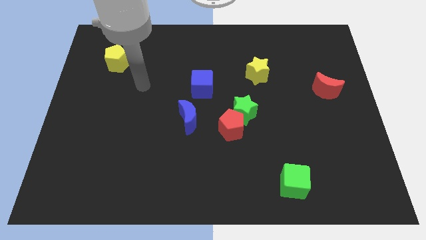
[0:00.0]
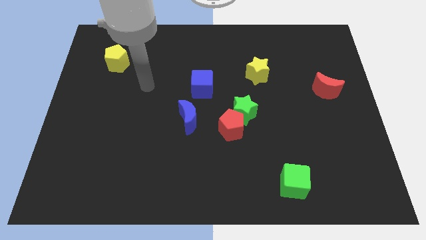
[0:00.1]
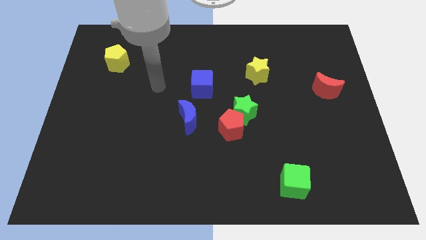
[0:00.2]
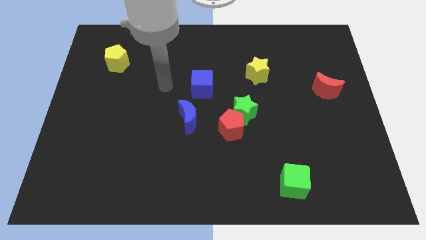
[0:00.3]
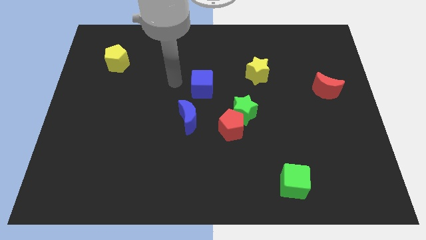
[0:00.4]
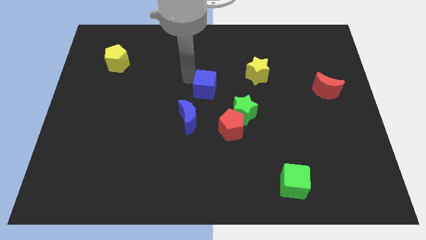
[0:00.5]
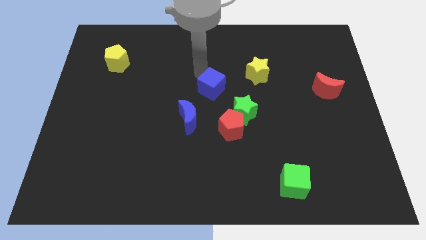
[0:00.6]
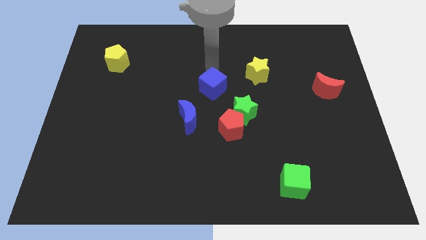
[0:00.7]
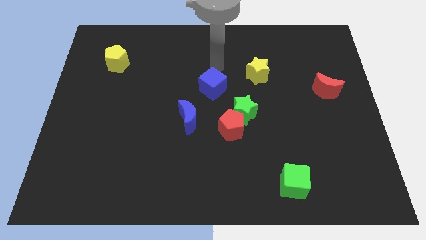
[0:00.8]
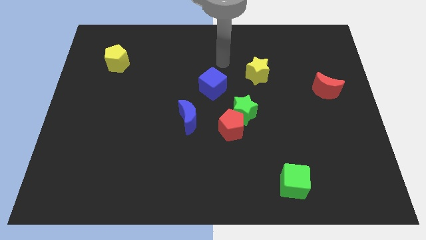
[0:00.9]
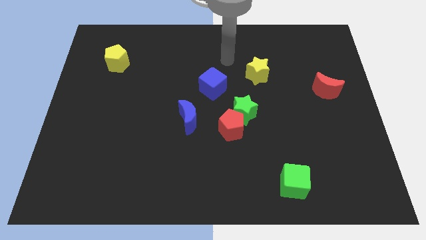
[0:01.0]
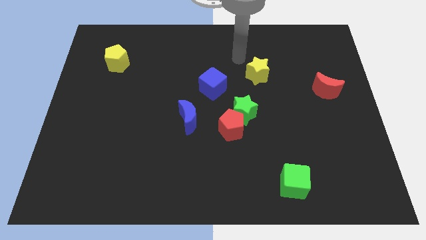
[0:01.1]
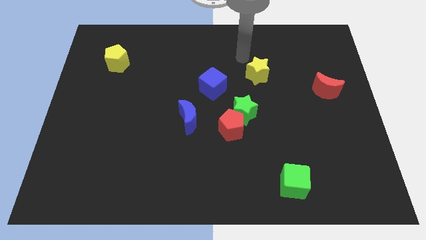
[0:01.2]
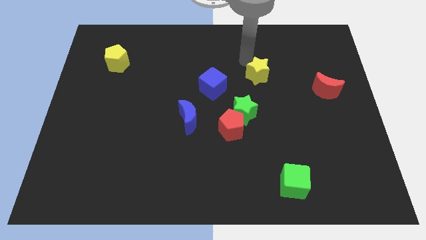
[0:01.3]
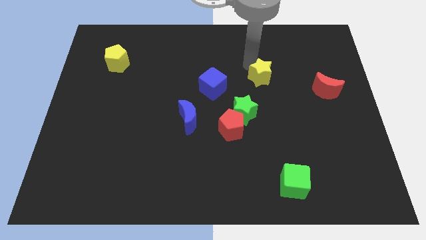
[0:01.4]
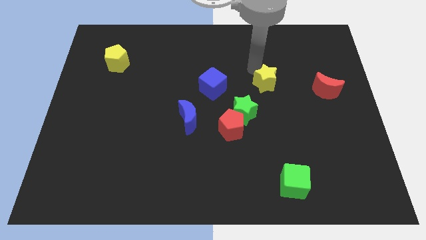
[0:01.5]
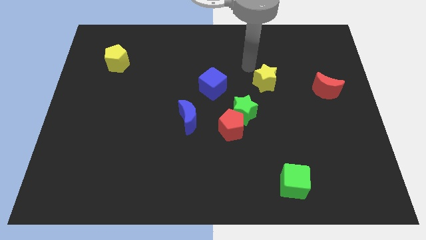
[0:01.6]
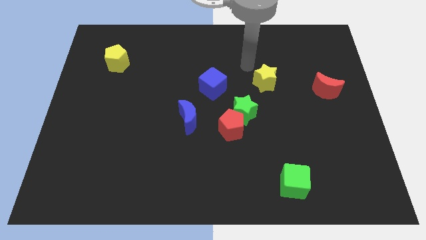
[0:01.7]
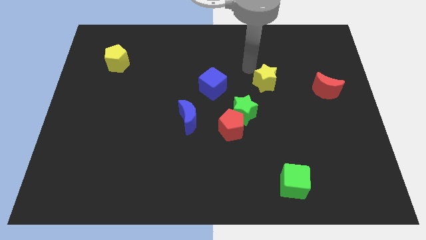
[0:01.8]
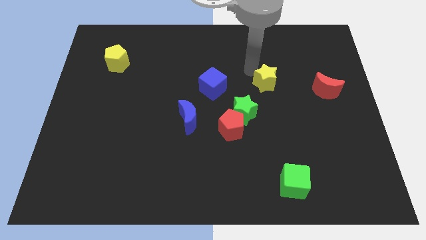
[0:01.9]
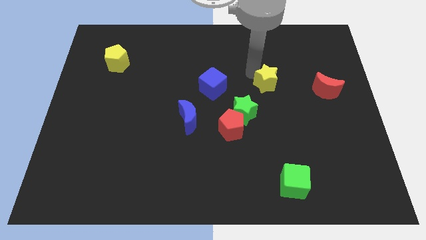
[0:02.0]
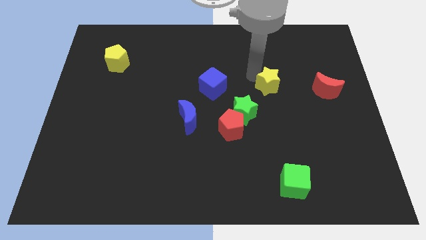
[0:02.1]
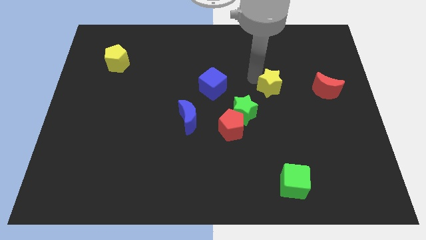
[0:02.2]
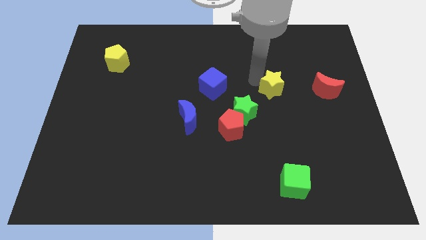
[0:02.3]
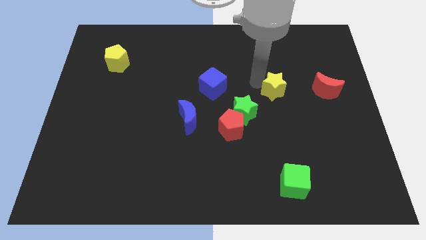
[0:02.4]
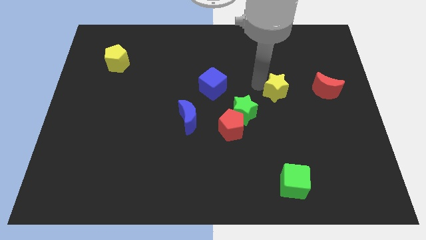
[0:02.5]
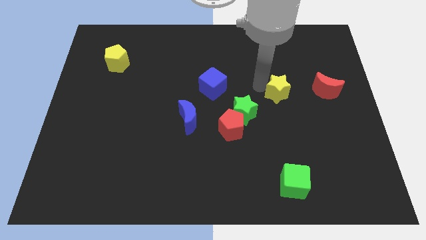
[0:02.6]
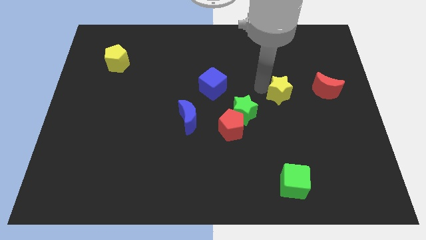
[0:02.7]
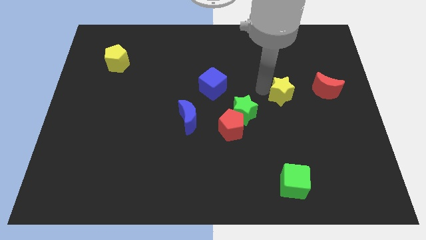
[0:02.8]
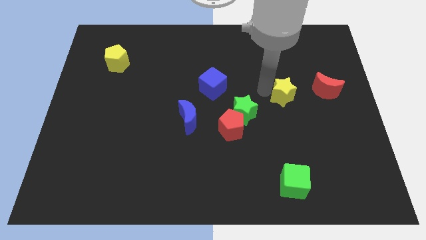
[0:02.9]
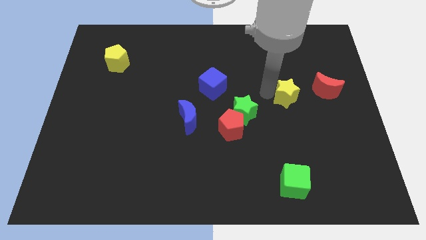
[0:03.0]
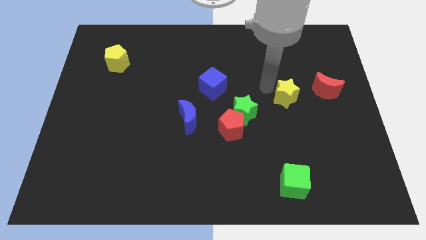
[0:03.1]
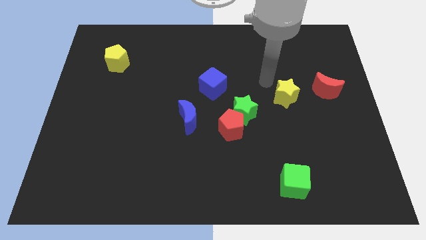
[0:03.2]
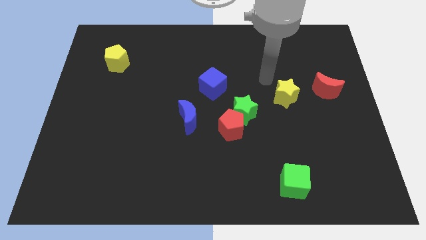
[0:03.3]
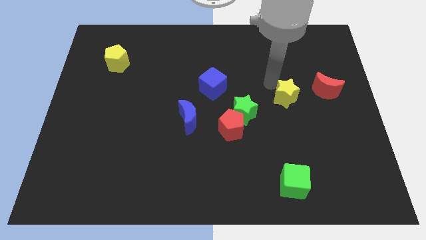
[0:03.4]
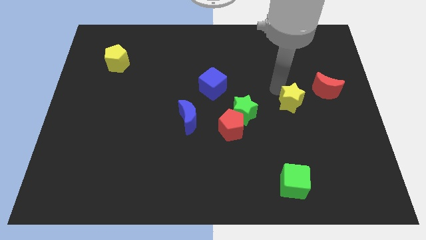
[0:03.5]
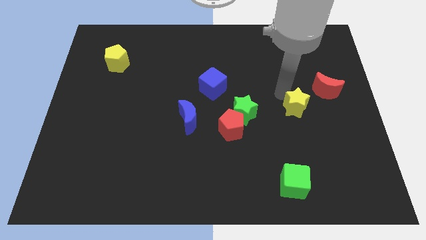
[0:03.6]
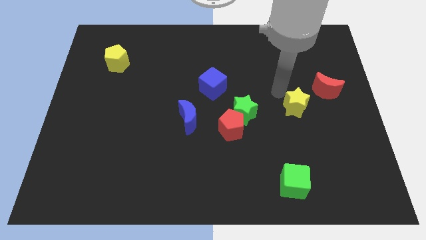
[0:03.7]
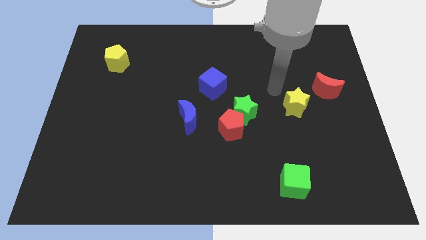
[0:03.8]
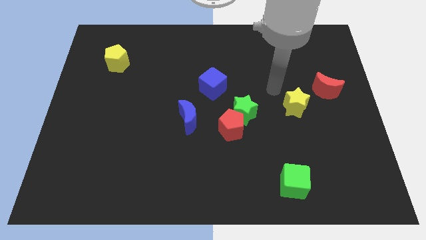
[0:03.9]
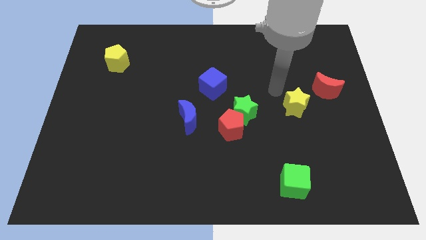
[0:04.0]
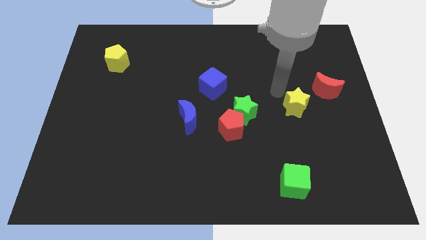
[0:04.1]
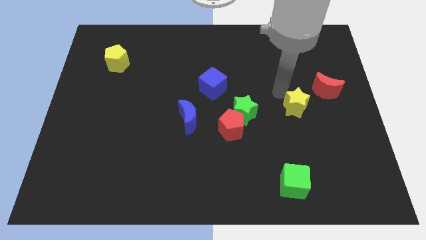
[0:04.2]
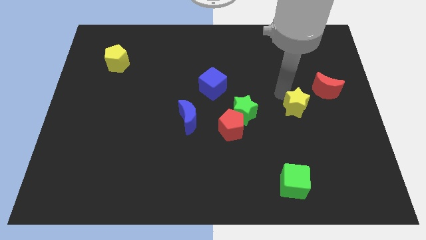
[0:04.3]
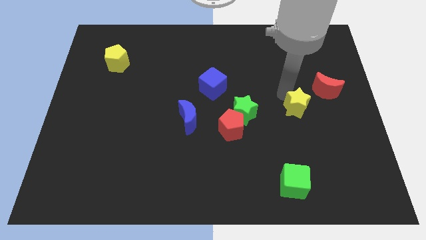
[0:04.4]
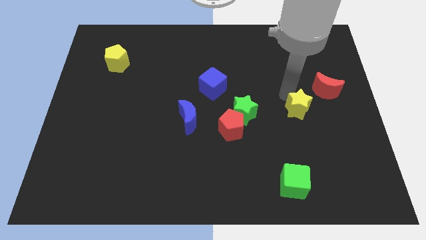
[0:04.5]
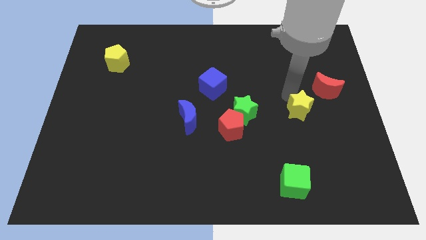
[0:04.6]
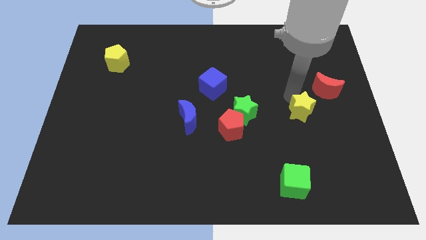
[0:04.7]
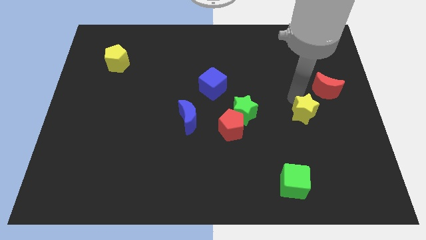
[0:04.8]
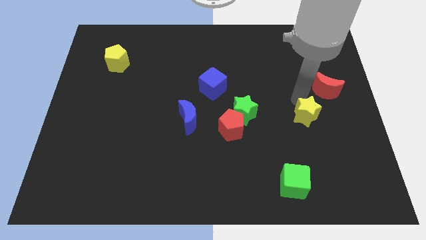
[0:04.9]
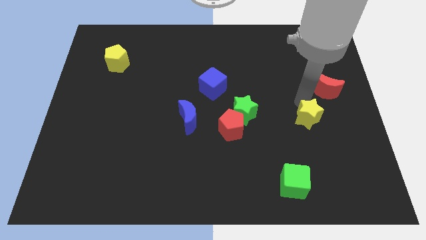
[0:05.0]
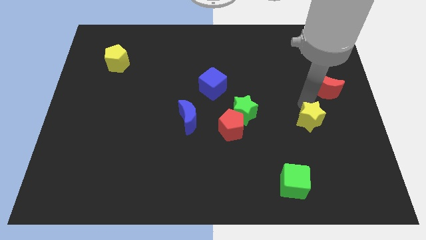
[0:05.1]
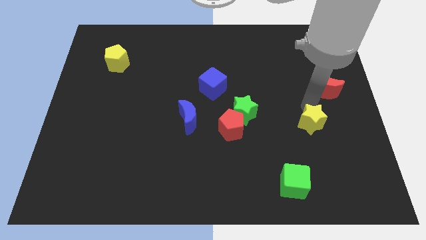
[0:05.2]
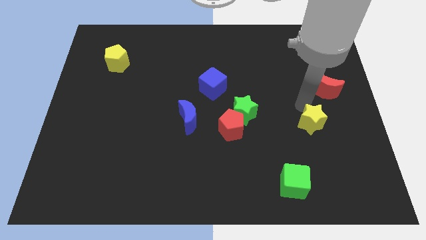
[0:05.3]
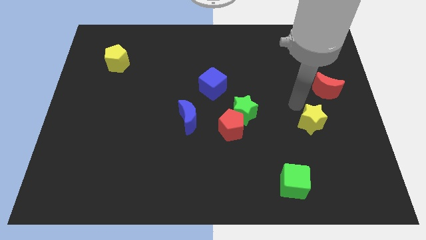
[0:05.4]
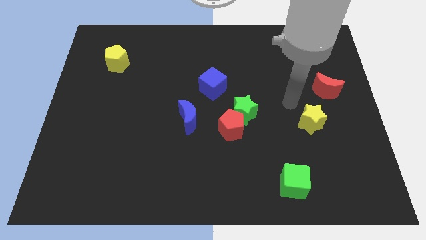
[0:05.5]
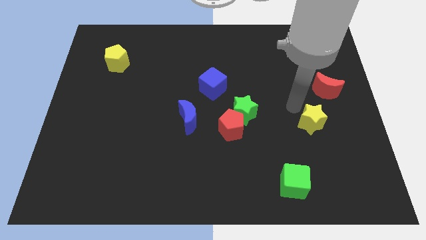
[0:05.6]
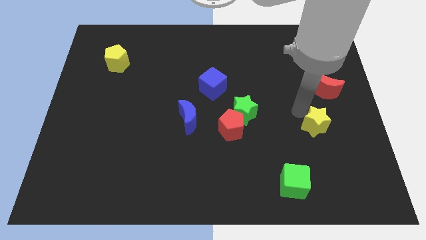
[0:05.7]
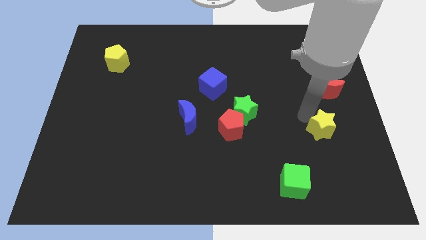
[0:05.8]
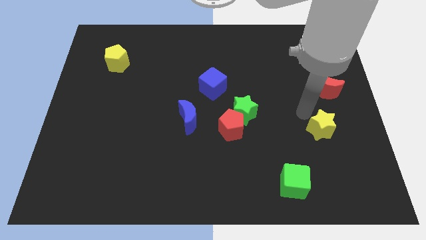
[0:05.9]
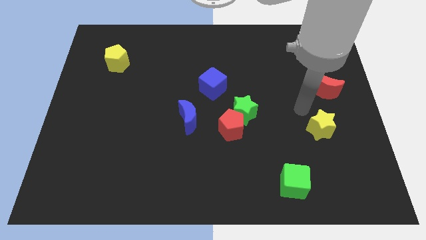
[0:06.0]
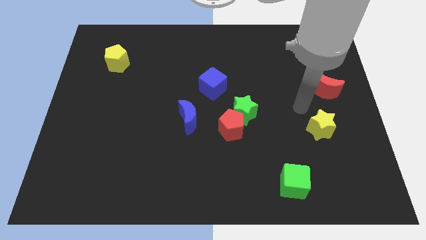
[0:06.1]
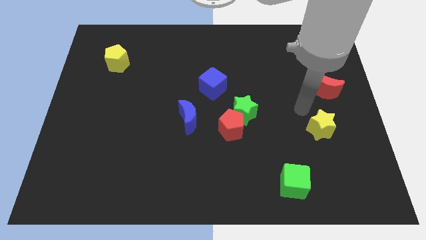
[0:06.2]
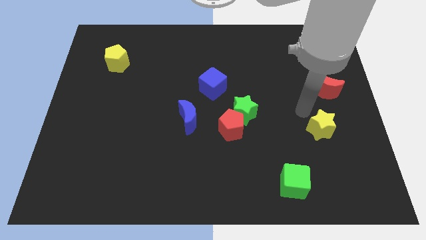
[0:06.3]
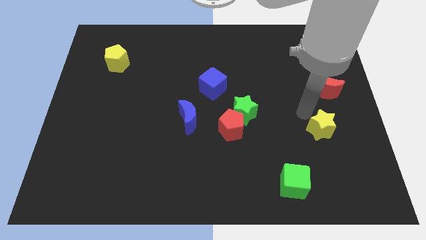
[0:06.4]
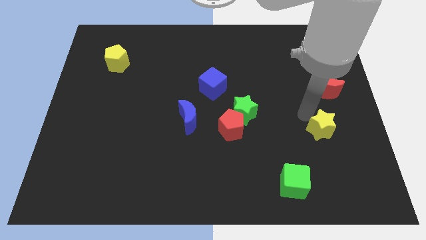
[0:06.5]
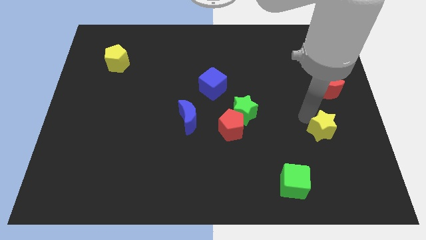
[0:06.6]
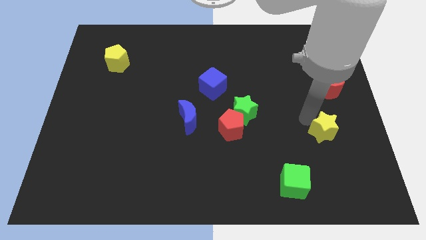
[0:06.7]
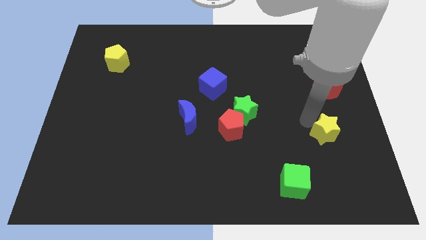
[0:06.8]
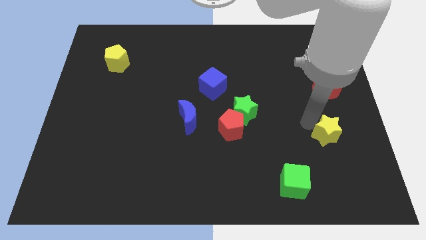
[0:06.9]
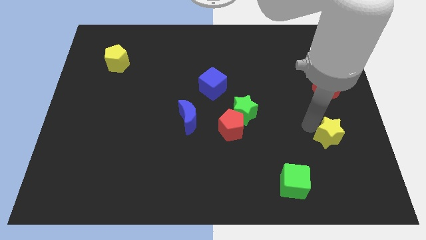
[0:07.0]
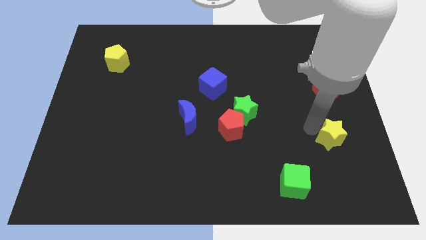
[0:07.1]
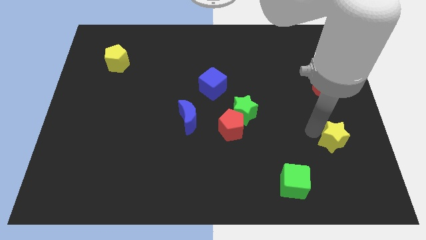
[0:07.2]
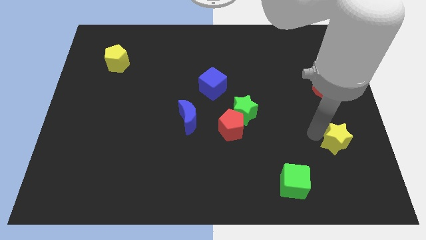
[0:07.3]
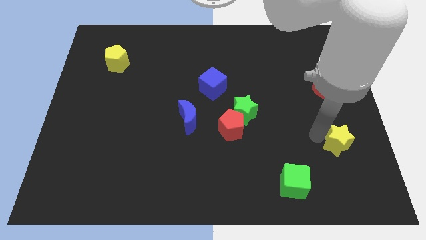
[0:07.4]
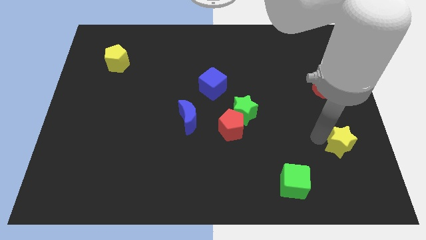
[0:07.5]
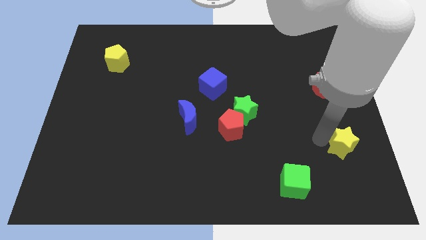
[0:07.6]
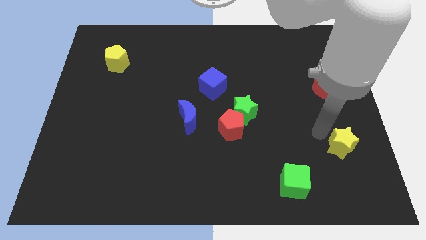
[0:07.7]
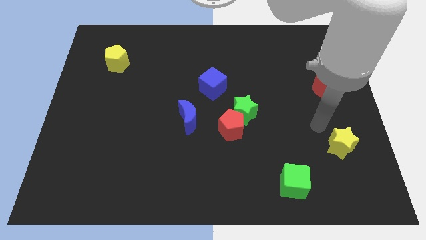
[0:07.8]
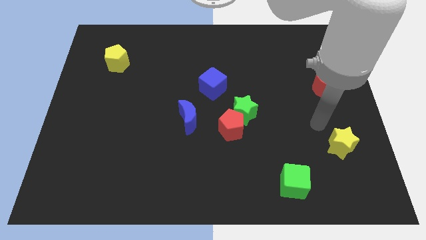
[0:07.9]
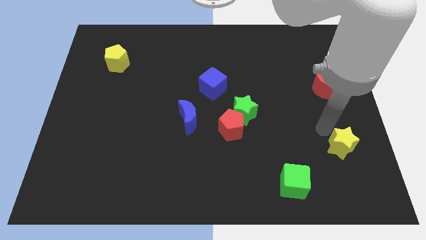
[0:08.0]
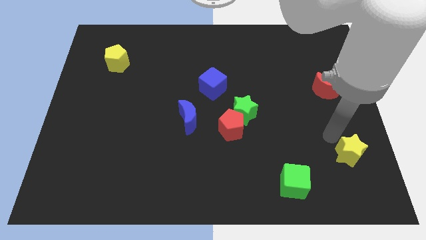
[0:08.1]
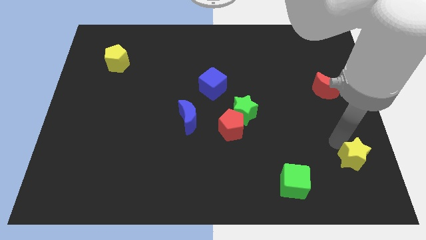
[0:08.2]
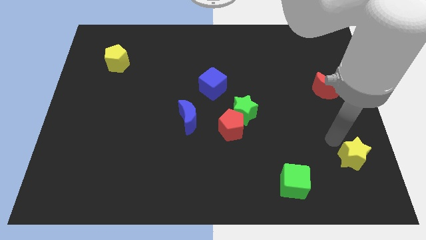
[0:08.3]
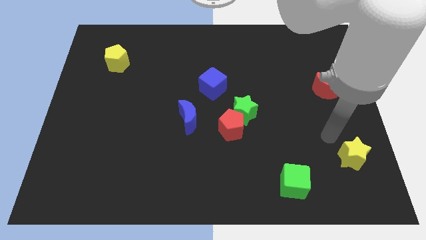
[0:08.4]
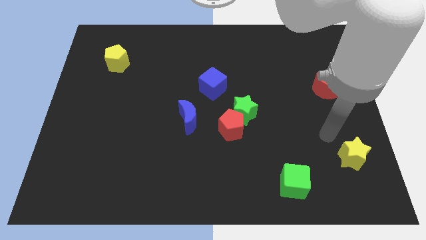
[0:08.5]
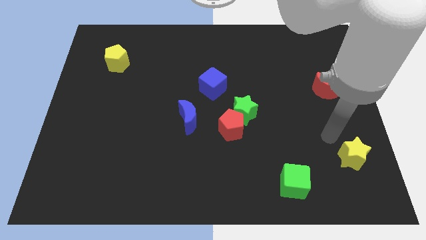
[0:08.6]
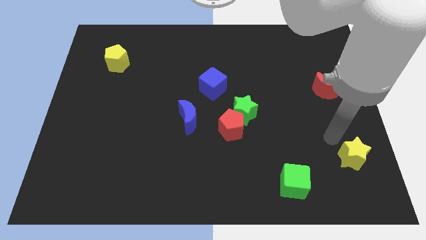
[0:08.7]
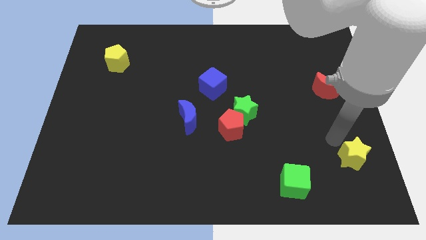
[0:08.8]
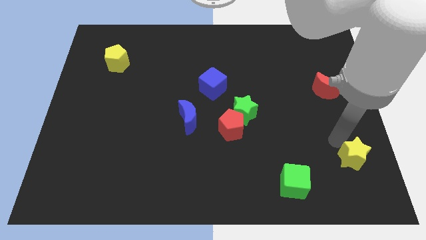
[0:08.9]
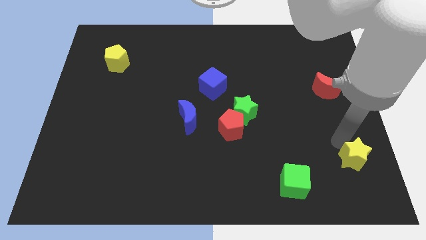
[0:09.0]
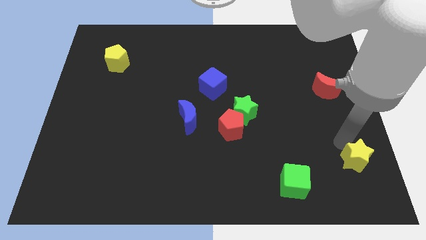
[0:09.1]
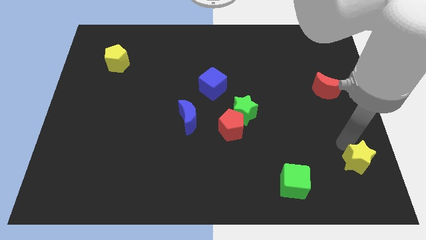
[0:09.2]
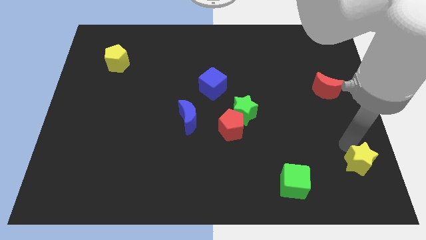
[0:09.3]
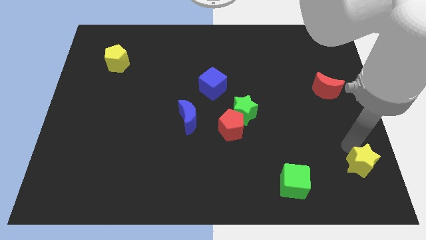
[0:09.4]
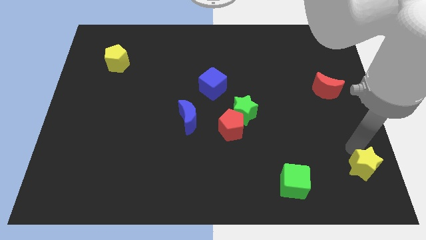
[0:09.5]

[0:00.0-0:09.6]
slide the yellow star to the bottom right
